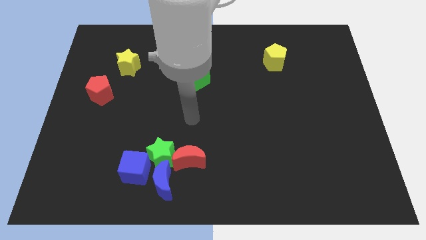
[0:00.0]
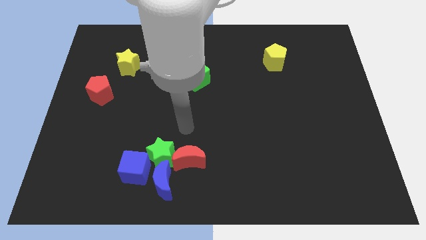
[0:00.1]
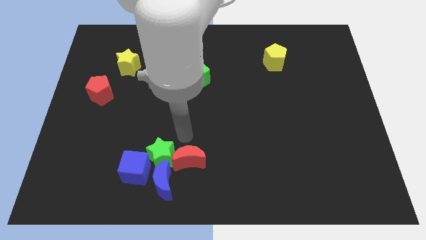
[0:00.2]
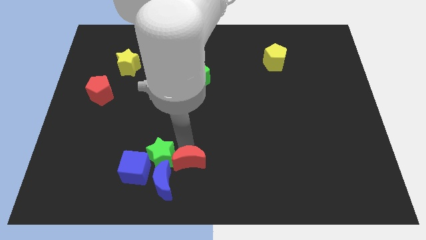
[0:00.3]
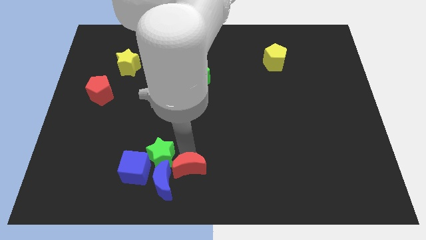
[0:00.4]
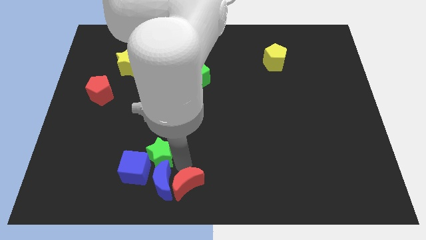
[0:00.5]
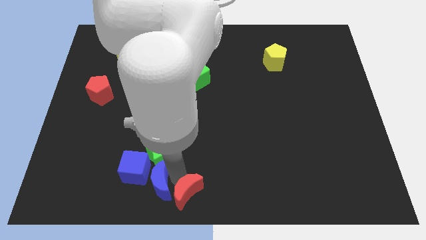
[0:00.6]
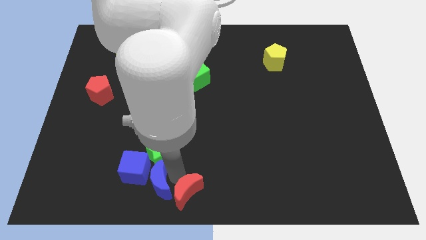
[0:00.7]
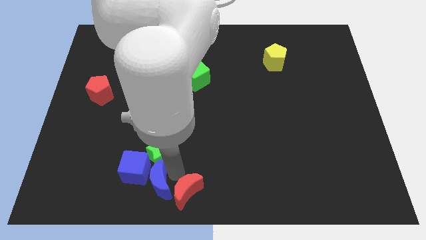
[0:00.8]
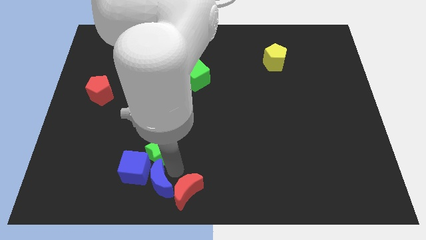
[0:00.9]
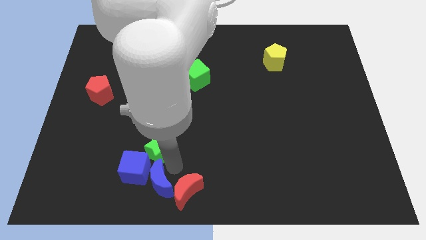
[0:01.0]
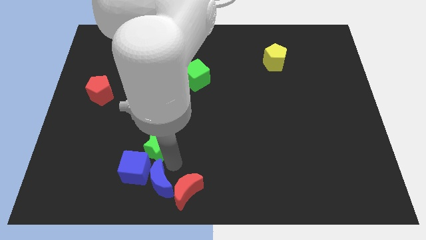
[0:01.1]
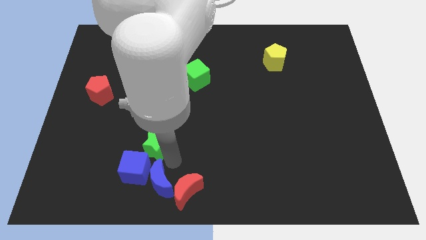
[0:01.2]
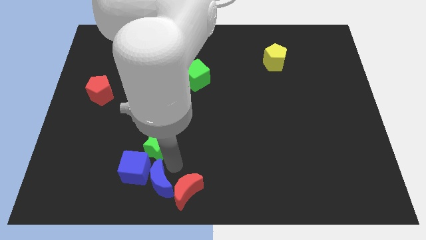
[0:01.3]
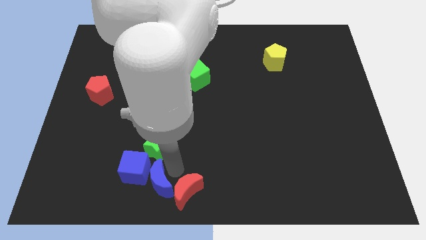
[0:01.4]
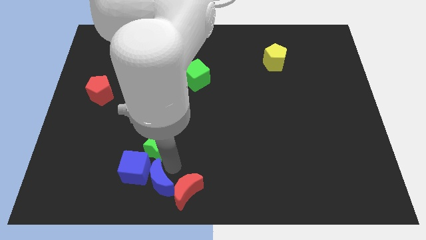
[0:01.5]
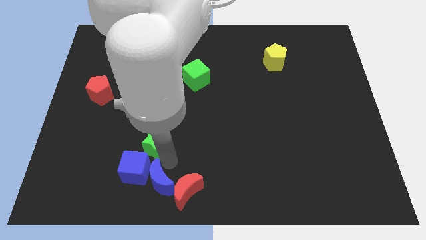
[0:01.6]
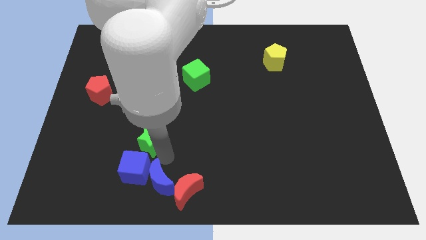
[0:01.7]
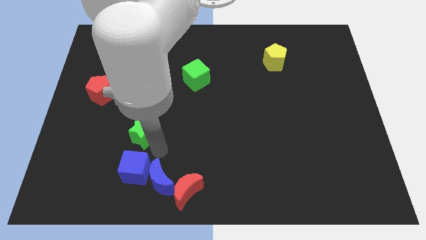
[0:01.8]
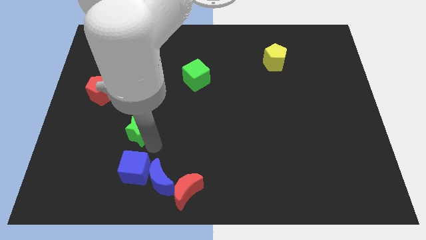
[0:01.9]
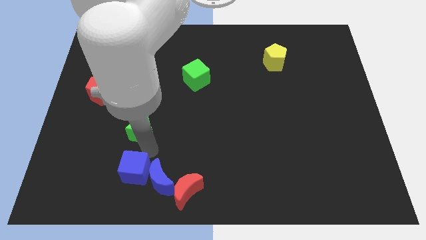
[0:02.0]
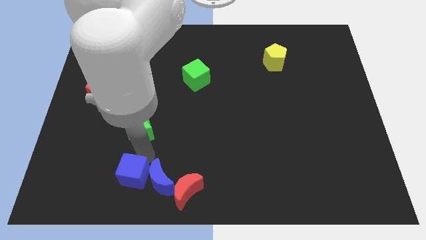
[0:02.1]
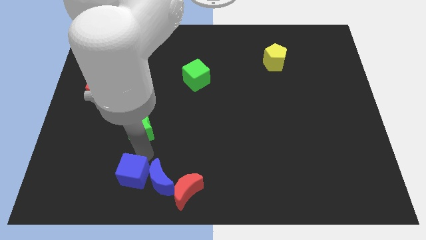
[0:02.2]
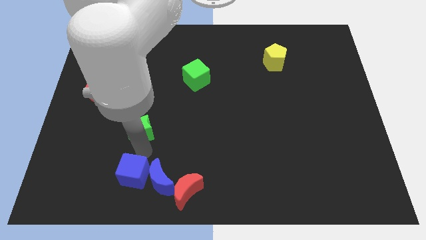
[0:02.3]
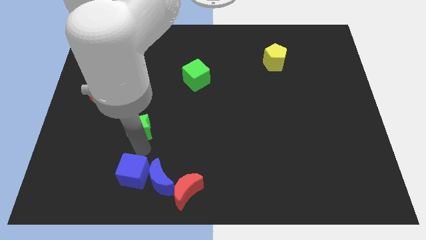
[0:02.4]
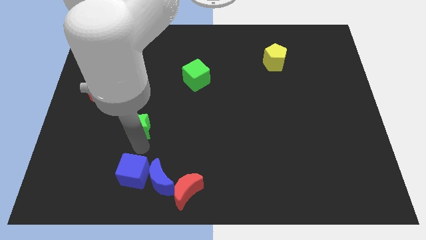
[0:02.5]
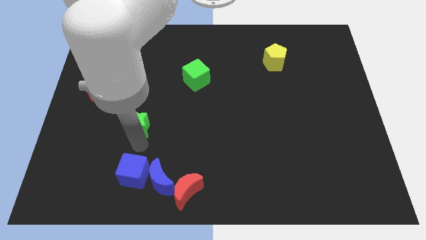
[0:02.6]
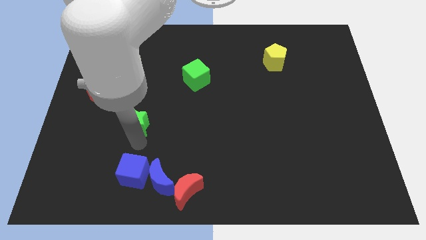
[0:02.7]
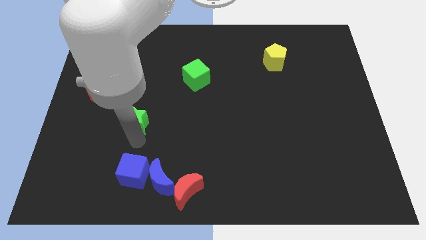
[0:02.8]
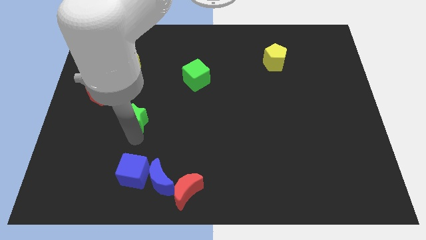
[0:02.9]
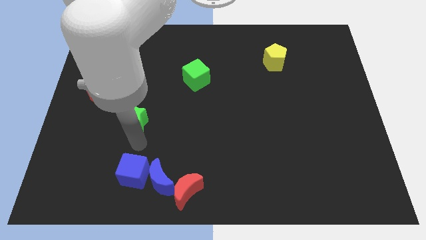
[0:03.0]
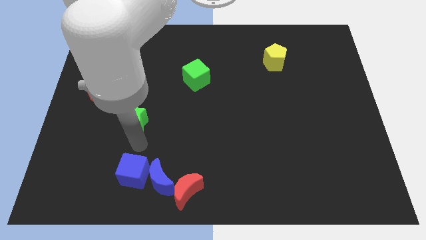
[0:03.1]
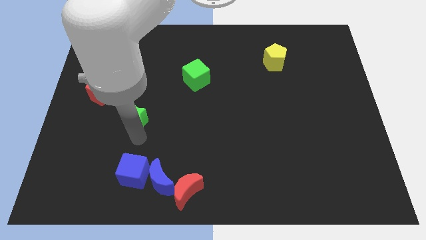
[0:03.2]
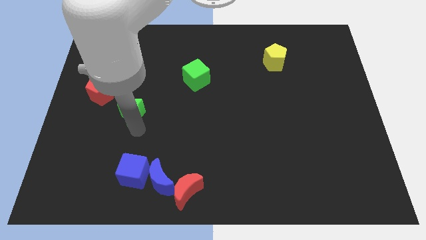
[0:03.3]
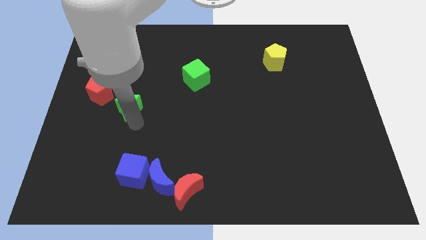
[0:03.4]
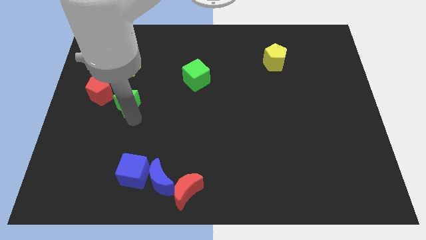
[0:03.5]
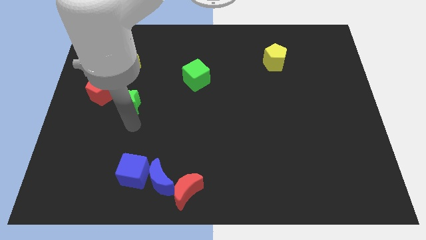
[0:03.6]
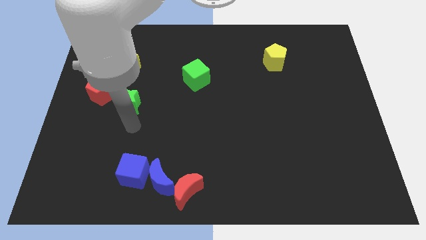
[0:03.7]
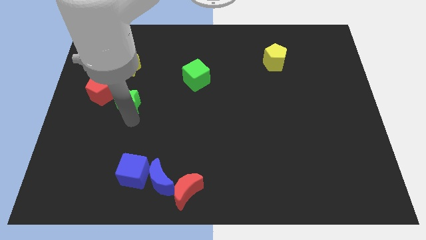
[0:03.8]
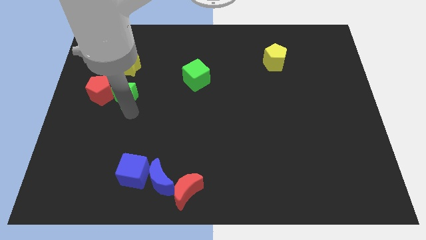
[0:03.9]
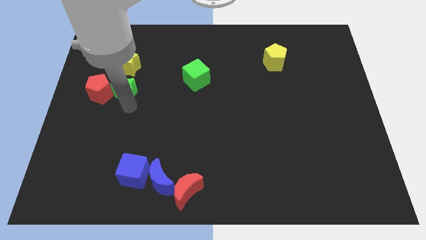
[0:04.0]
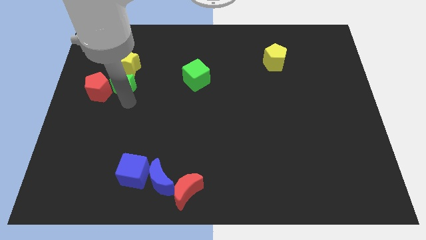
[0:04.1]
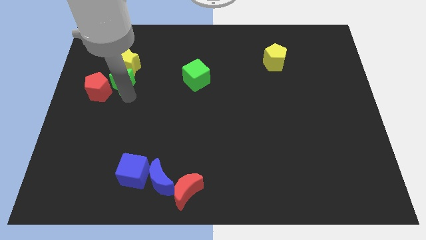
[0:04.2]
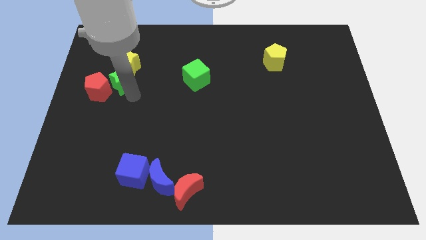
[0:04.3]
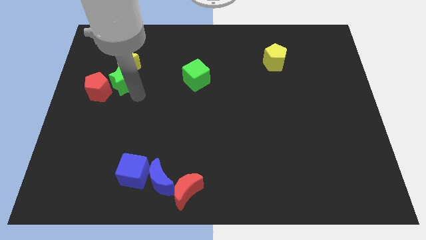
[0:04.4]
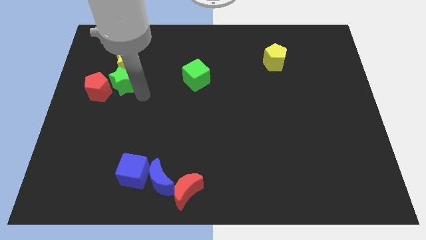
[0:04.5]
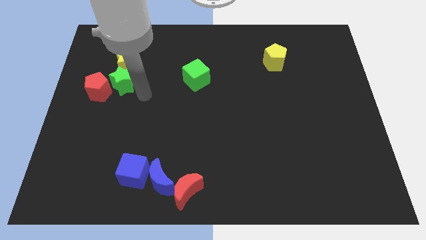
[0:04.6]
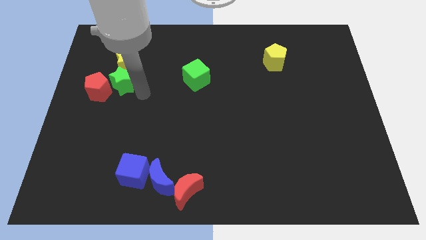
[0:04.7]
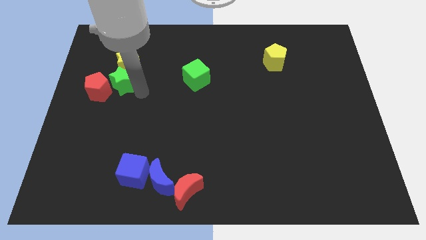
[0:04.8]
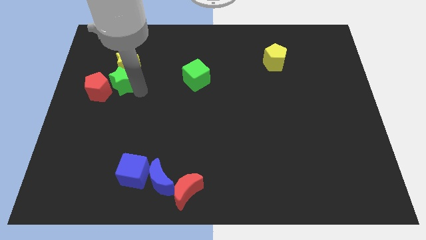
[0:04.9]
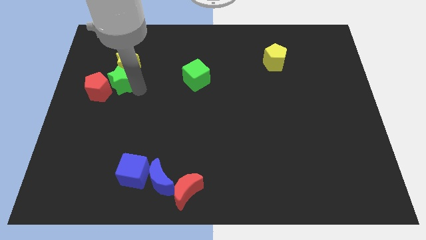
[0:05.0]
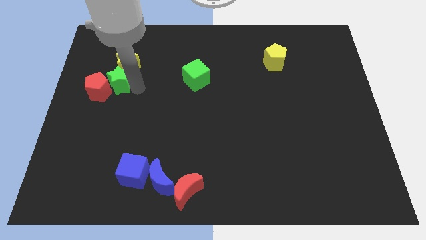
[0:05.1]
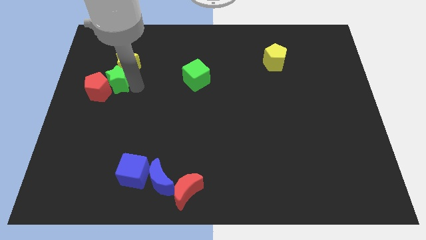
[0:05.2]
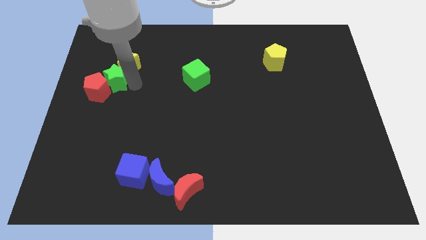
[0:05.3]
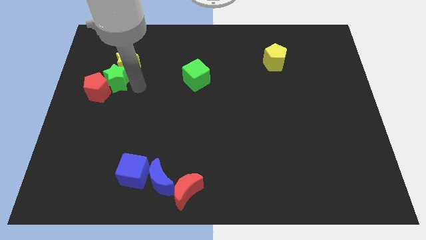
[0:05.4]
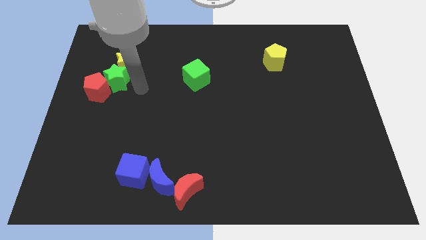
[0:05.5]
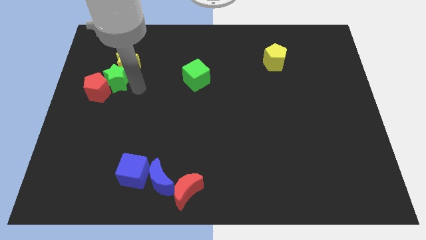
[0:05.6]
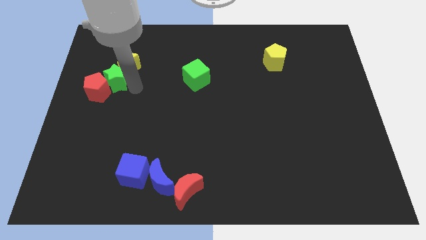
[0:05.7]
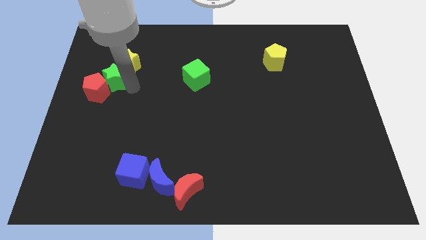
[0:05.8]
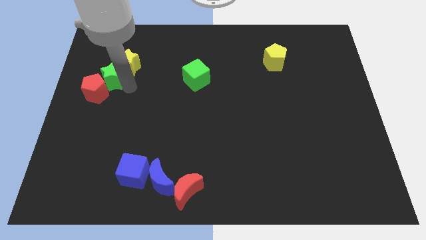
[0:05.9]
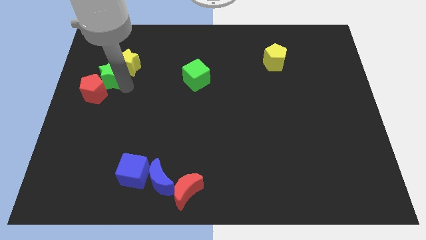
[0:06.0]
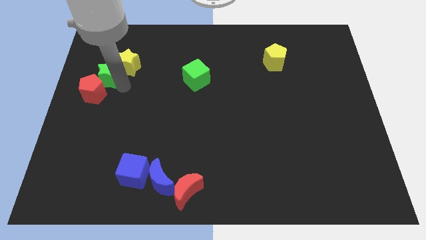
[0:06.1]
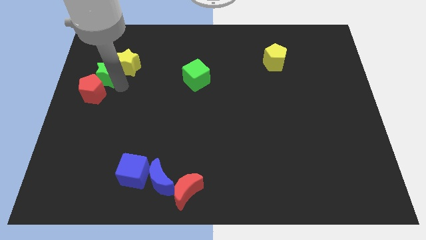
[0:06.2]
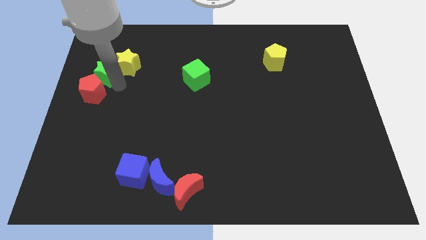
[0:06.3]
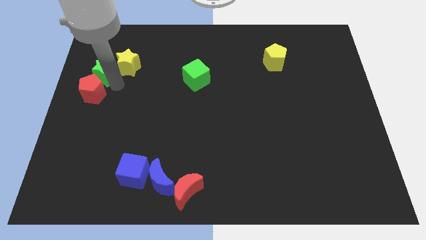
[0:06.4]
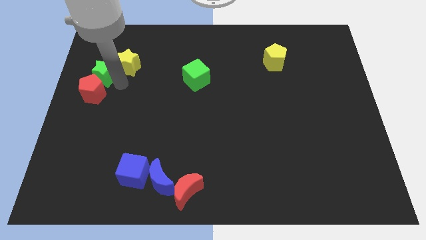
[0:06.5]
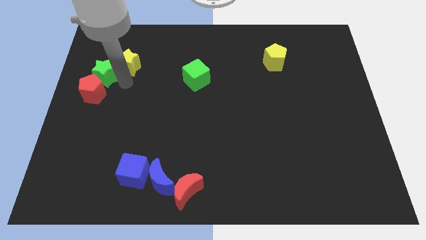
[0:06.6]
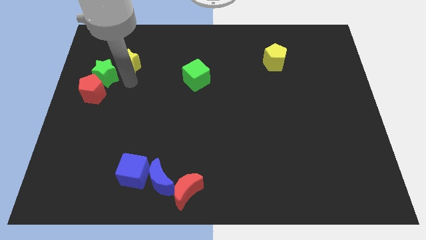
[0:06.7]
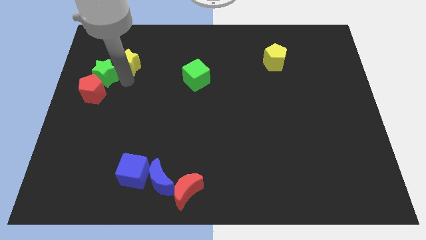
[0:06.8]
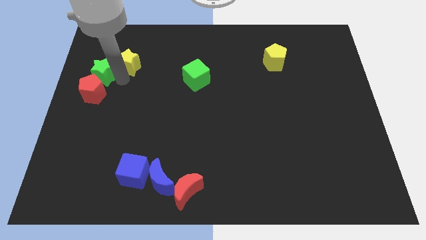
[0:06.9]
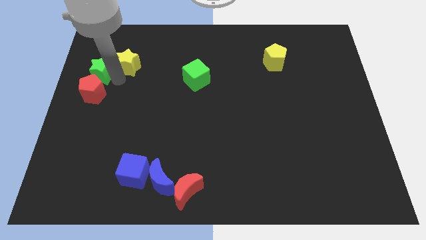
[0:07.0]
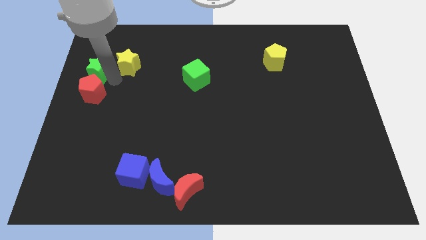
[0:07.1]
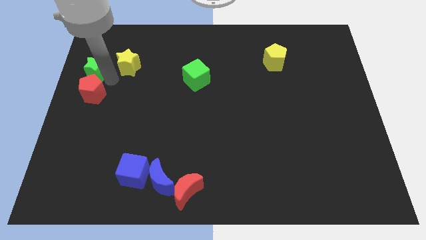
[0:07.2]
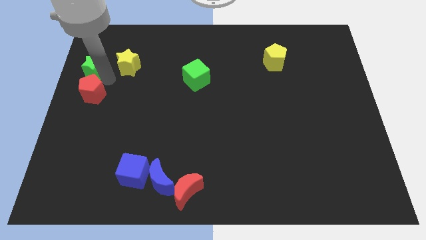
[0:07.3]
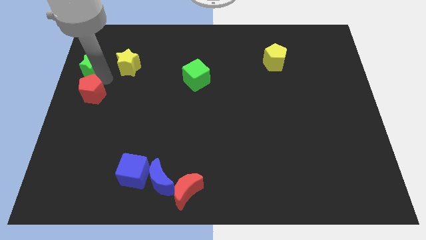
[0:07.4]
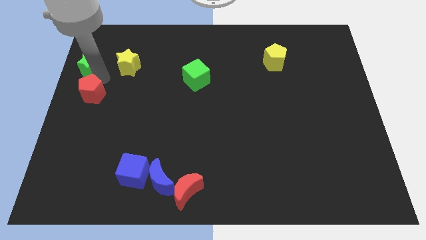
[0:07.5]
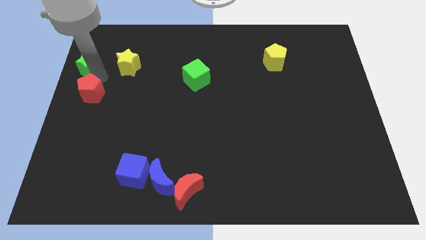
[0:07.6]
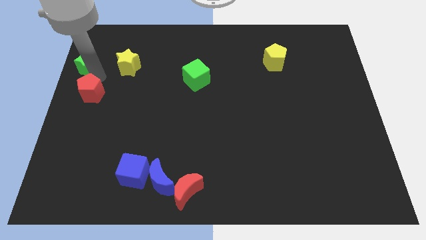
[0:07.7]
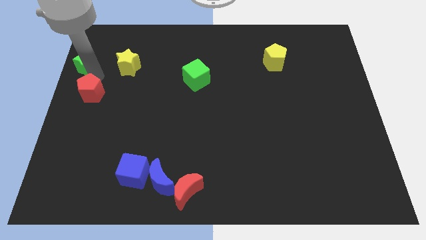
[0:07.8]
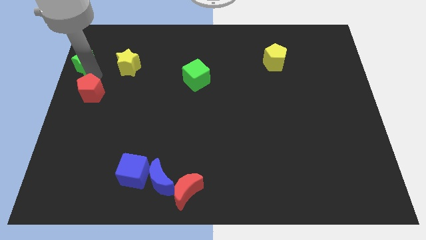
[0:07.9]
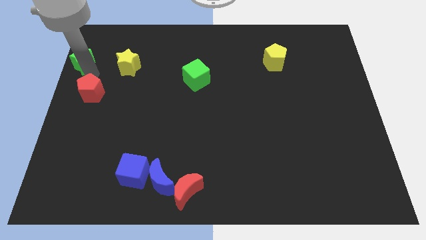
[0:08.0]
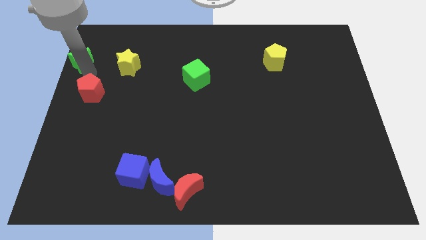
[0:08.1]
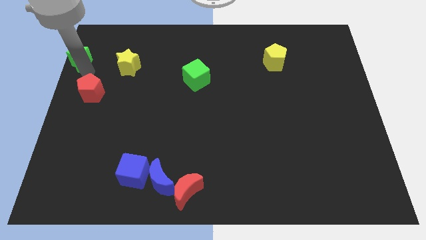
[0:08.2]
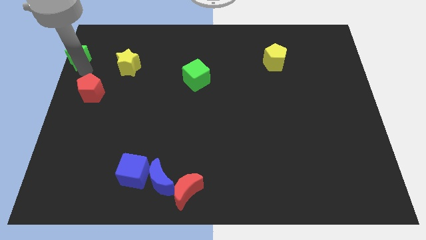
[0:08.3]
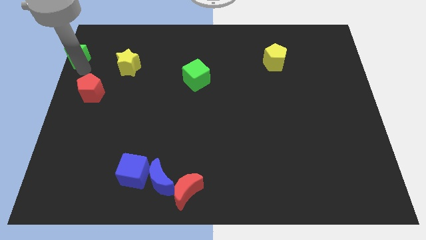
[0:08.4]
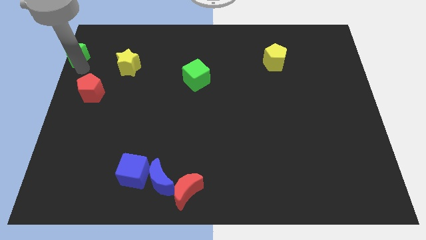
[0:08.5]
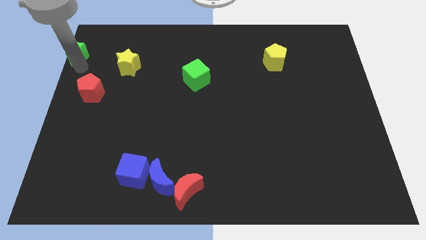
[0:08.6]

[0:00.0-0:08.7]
slide the green star to the top left
